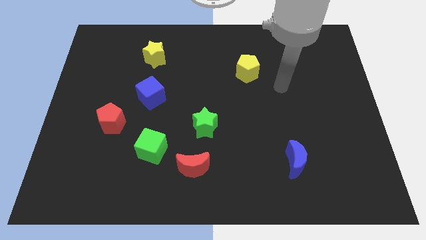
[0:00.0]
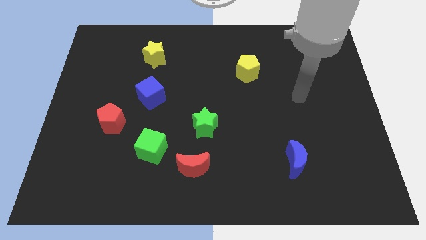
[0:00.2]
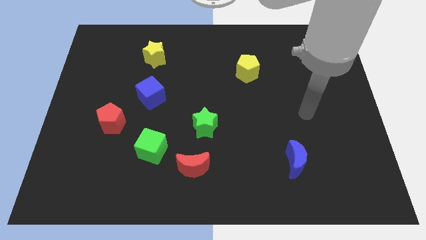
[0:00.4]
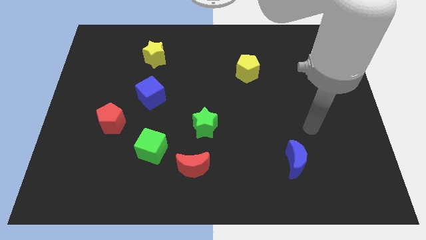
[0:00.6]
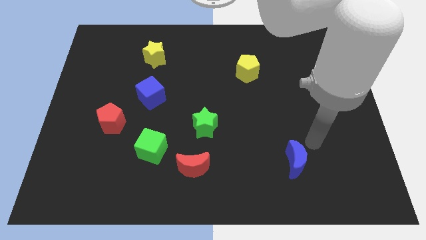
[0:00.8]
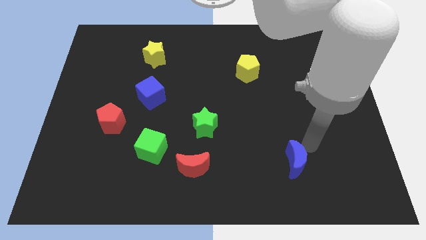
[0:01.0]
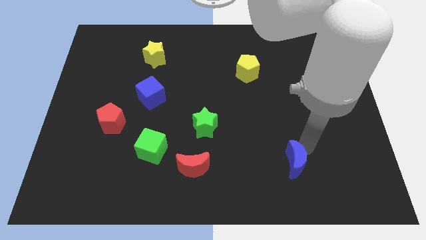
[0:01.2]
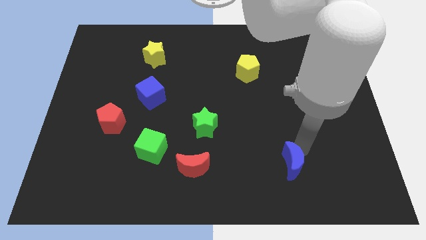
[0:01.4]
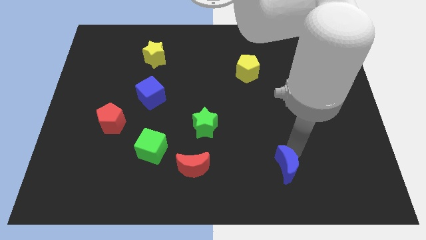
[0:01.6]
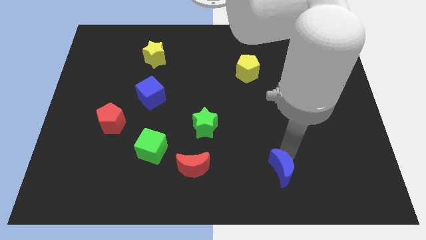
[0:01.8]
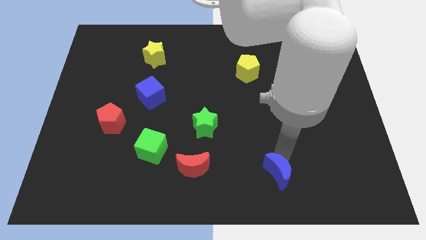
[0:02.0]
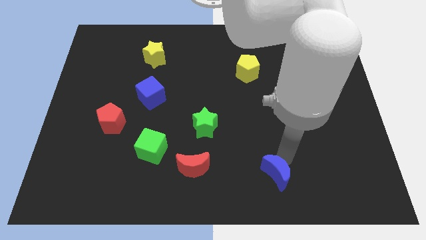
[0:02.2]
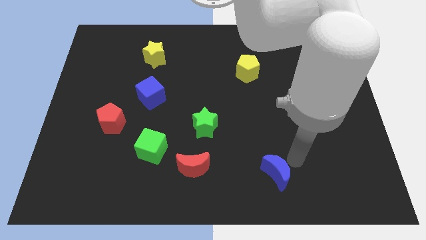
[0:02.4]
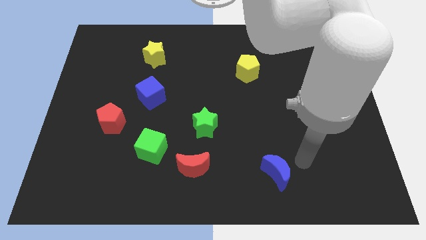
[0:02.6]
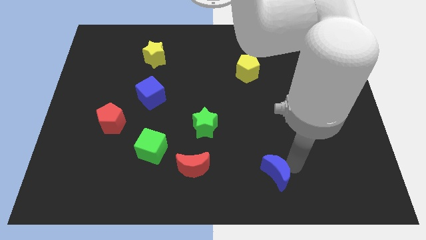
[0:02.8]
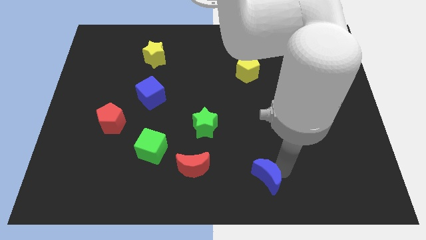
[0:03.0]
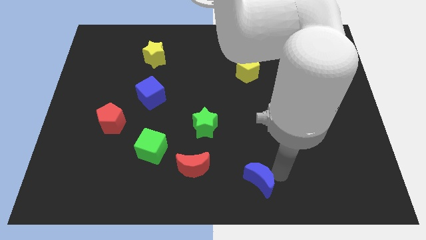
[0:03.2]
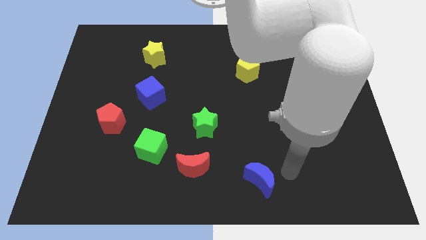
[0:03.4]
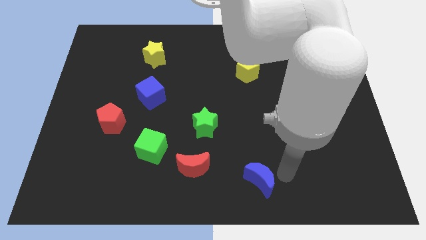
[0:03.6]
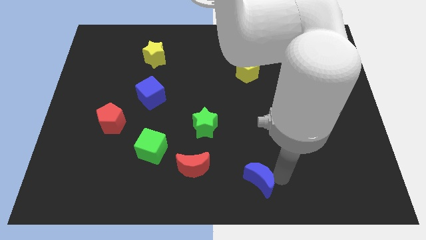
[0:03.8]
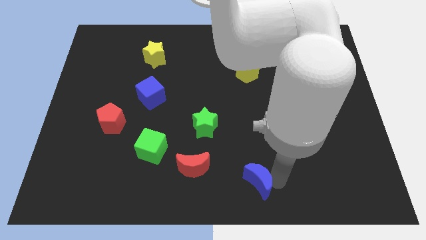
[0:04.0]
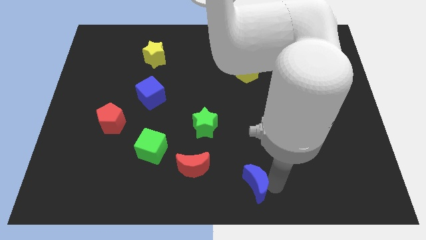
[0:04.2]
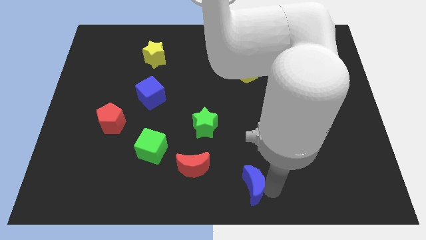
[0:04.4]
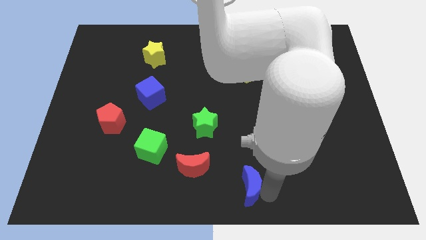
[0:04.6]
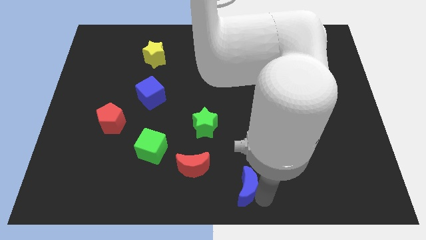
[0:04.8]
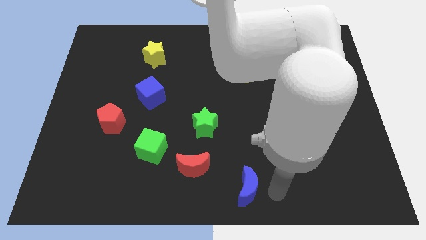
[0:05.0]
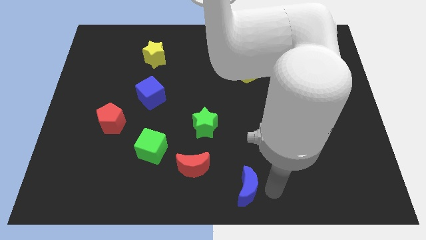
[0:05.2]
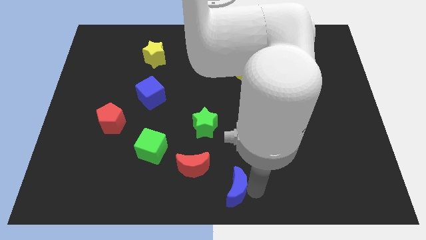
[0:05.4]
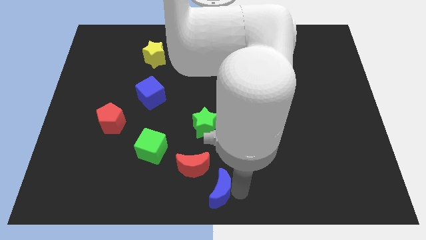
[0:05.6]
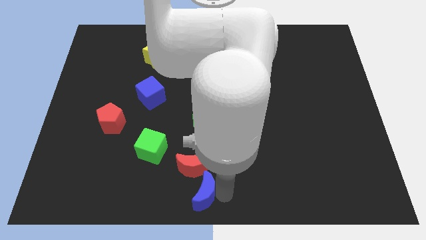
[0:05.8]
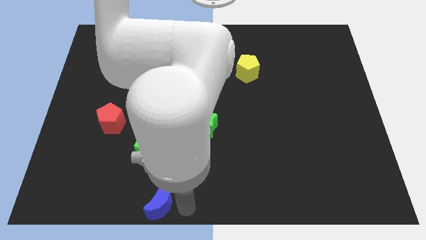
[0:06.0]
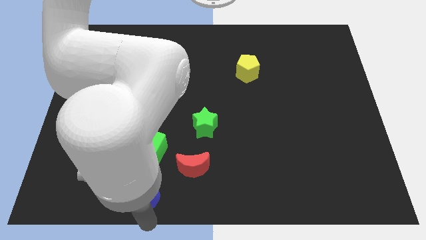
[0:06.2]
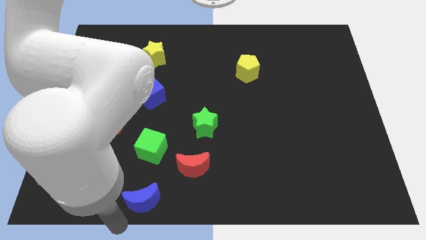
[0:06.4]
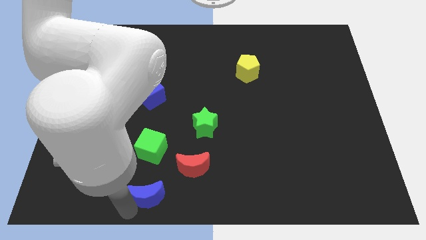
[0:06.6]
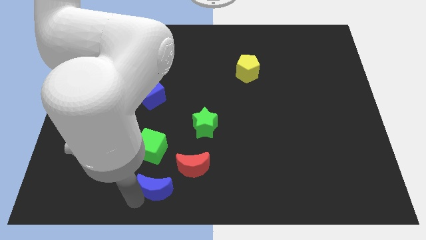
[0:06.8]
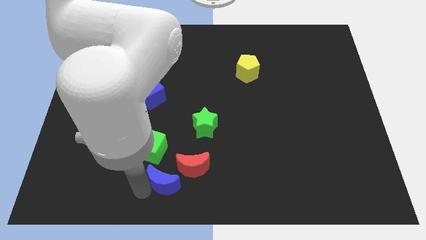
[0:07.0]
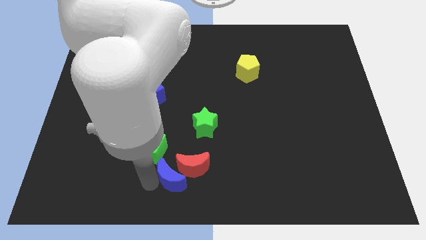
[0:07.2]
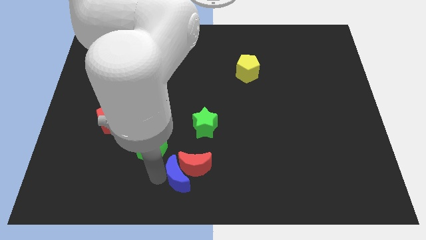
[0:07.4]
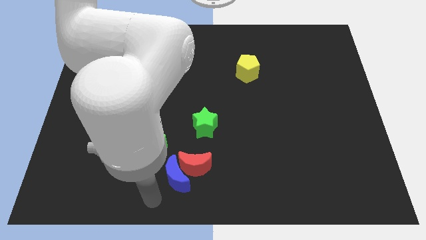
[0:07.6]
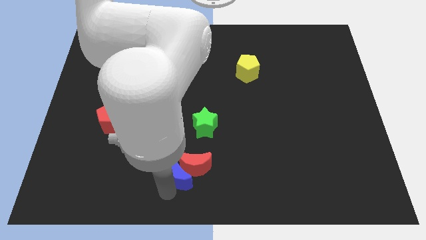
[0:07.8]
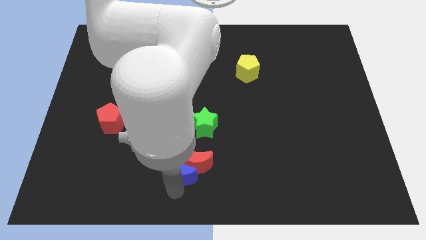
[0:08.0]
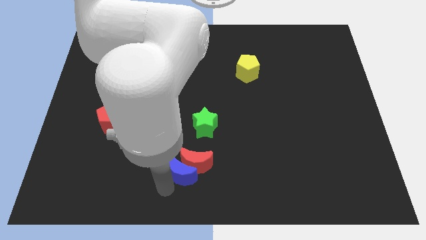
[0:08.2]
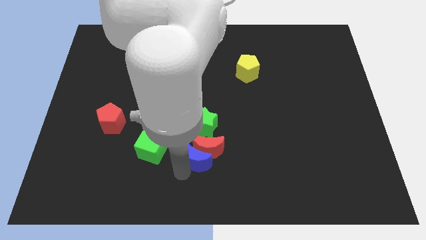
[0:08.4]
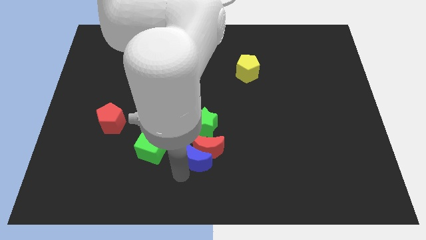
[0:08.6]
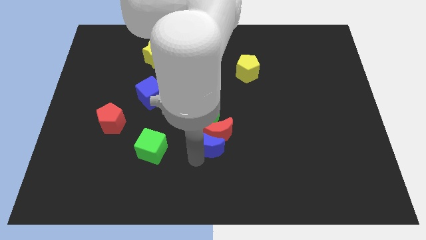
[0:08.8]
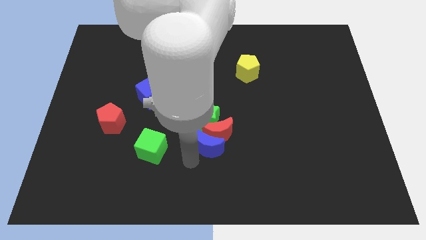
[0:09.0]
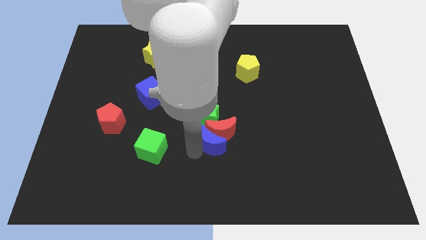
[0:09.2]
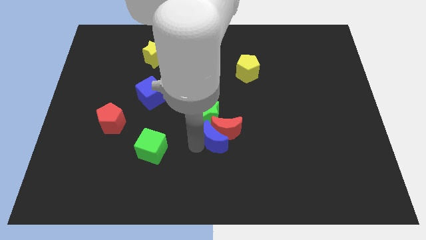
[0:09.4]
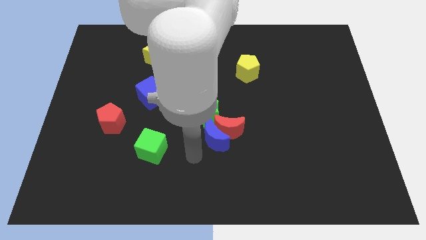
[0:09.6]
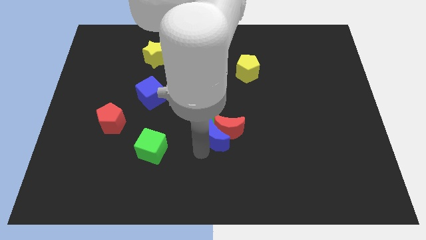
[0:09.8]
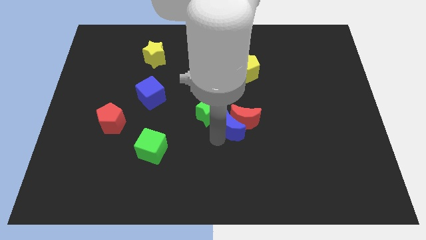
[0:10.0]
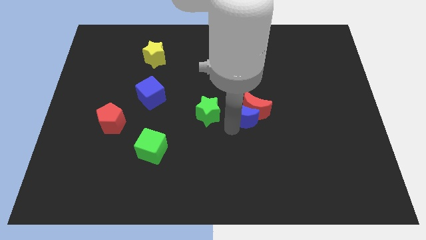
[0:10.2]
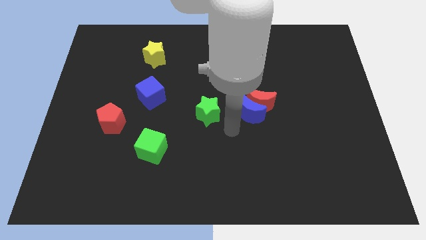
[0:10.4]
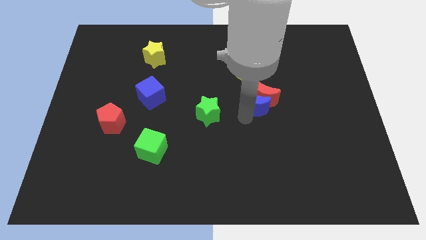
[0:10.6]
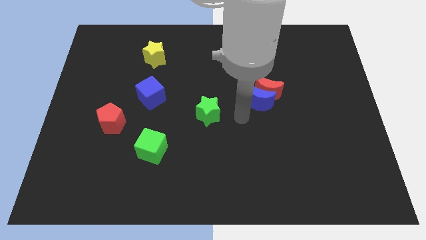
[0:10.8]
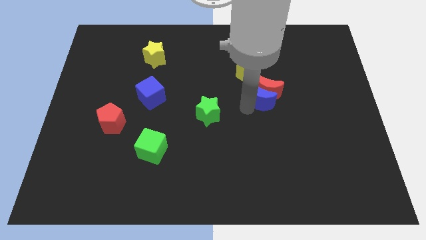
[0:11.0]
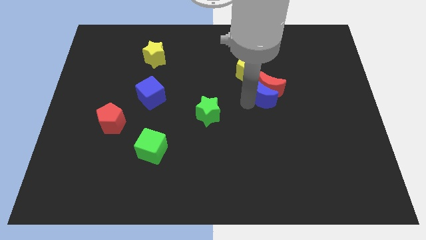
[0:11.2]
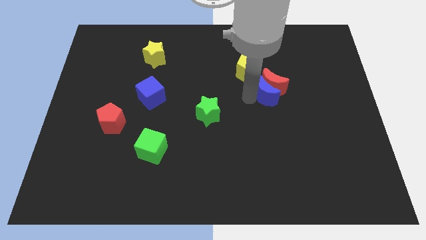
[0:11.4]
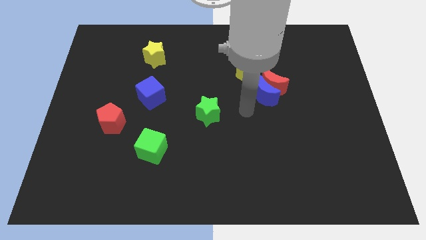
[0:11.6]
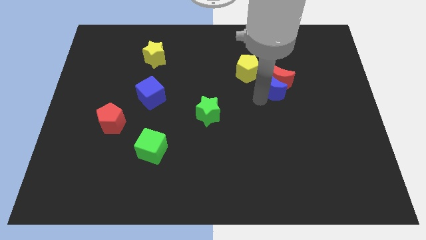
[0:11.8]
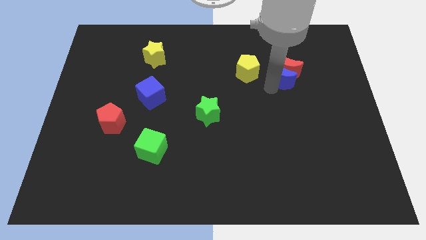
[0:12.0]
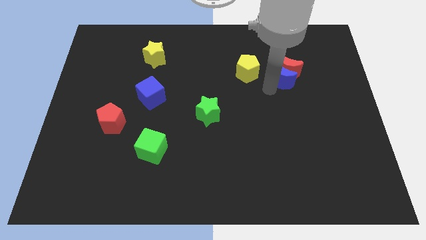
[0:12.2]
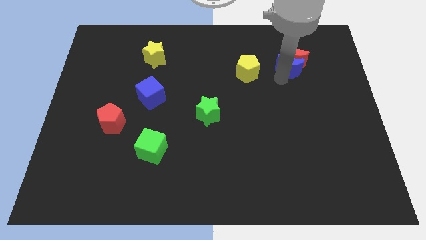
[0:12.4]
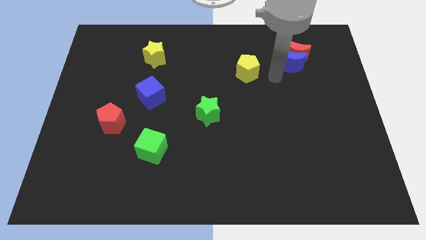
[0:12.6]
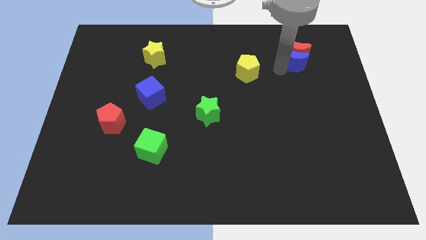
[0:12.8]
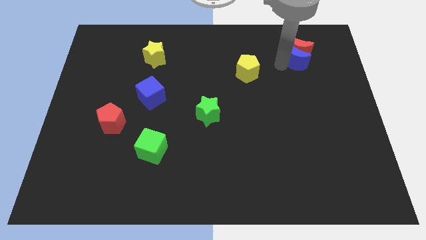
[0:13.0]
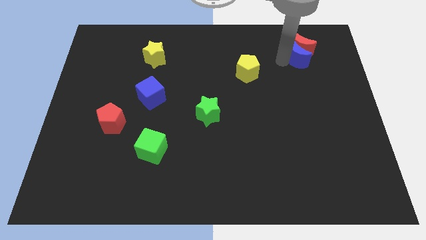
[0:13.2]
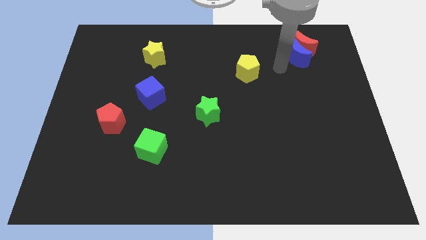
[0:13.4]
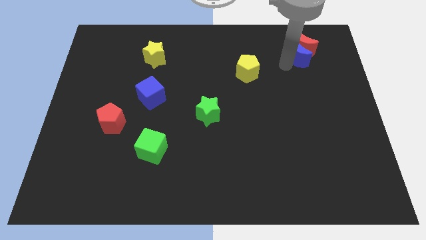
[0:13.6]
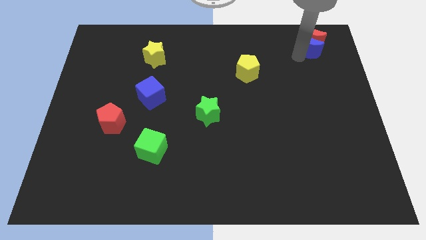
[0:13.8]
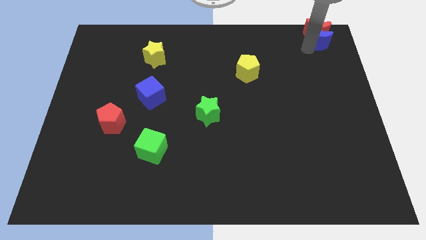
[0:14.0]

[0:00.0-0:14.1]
push the blue moon to the upper right corner
